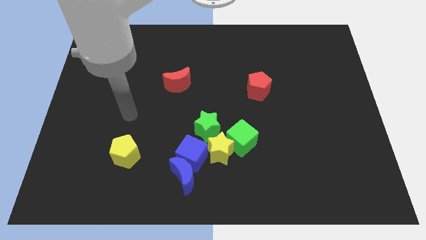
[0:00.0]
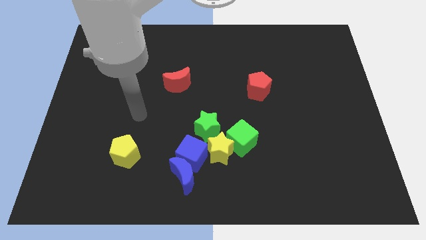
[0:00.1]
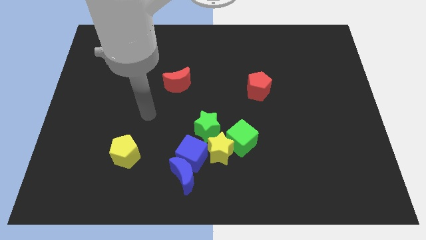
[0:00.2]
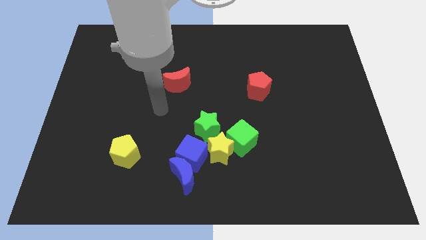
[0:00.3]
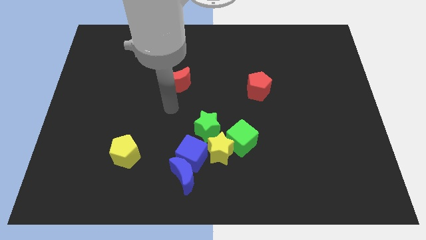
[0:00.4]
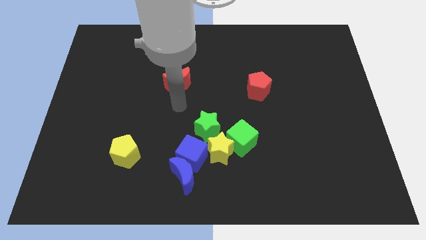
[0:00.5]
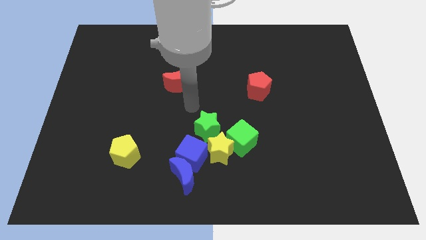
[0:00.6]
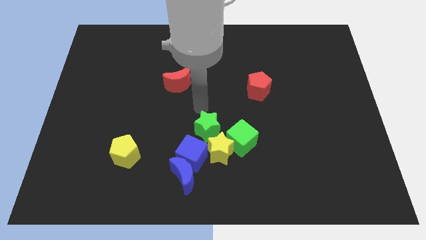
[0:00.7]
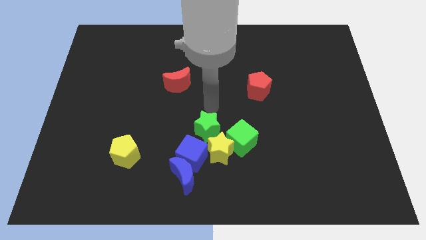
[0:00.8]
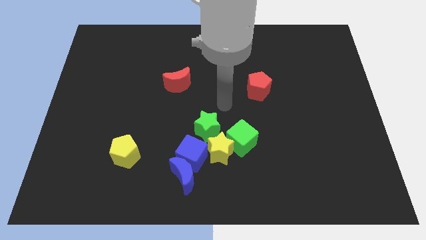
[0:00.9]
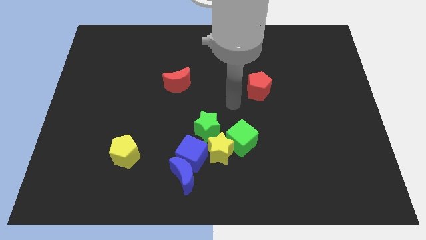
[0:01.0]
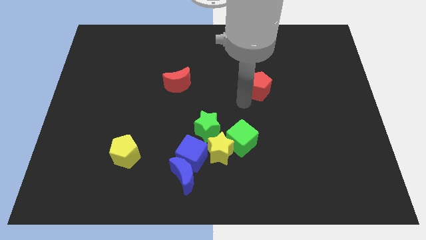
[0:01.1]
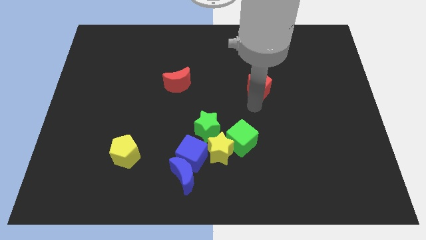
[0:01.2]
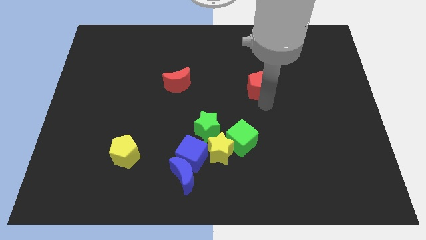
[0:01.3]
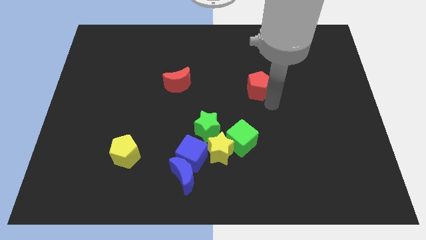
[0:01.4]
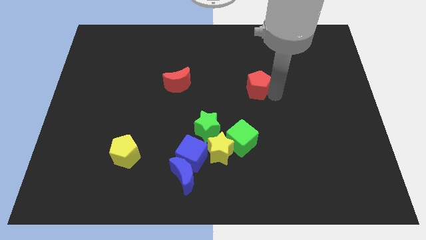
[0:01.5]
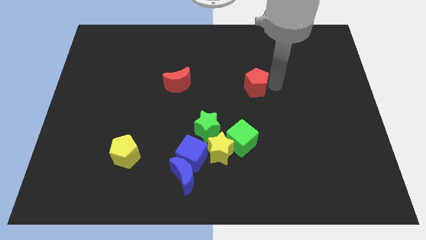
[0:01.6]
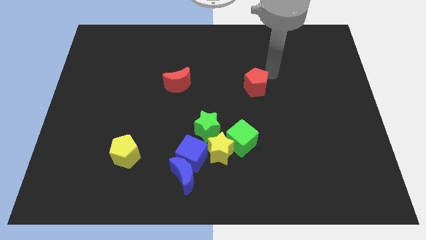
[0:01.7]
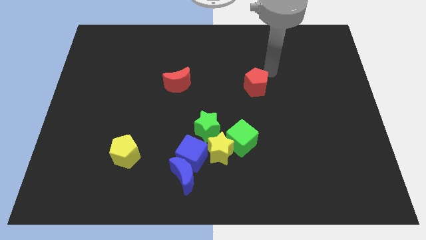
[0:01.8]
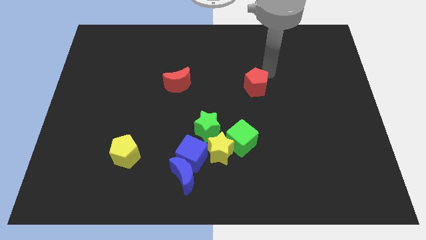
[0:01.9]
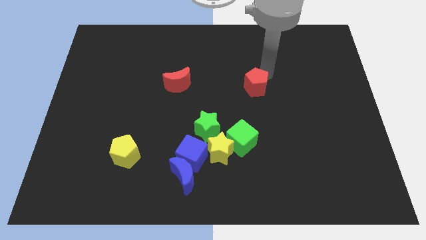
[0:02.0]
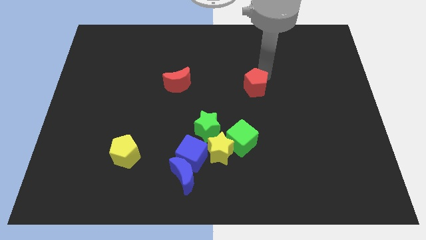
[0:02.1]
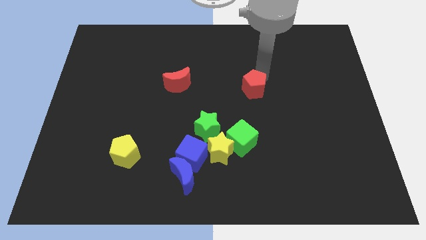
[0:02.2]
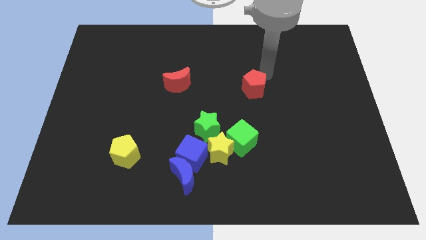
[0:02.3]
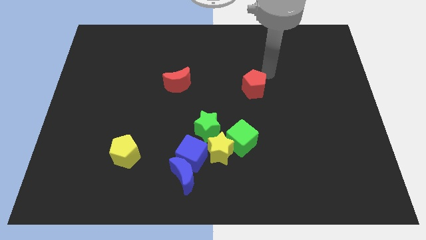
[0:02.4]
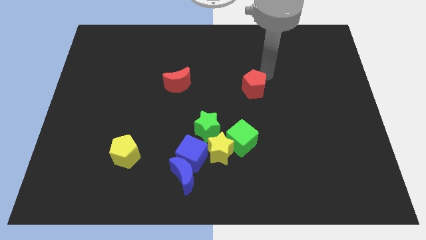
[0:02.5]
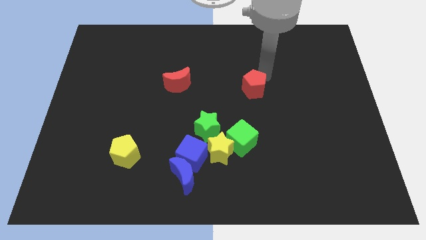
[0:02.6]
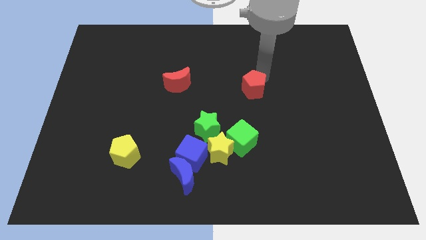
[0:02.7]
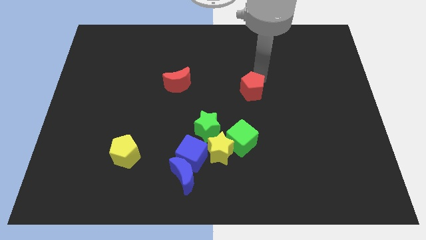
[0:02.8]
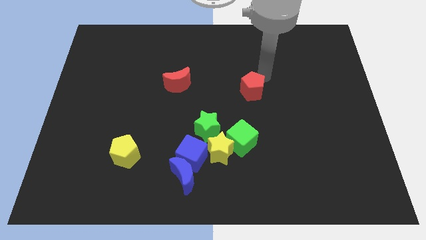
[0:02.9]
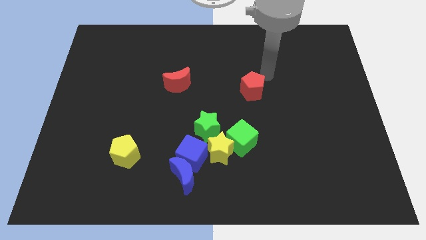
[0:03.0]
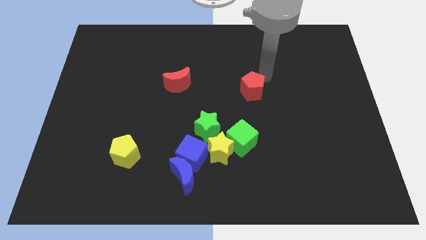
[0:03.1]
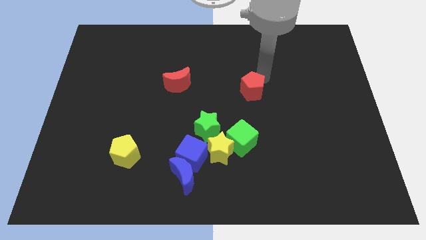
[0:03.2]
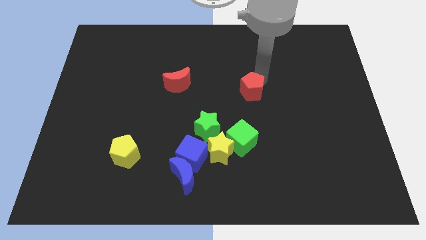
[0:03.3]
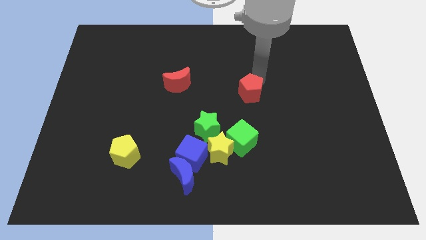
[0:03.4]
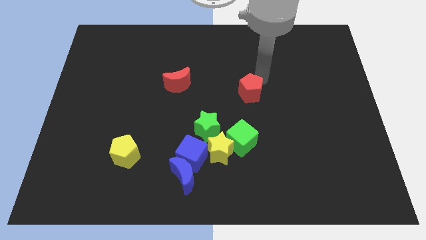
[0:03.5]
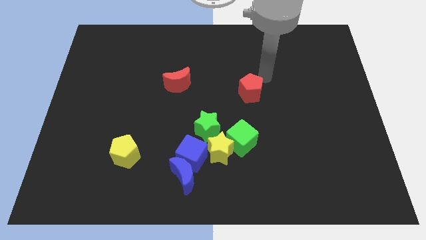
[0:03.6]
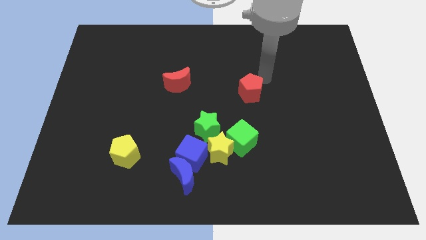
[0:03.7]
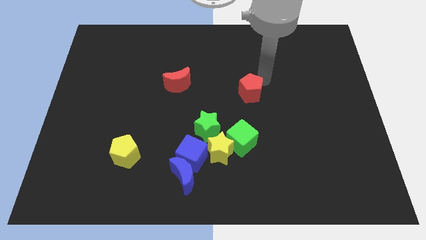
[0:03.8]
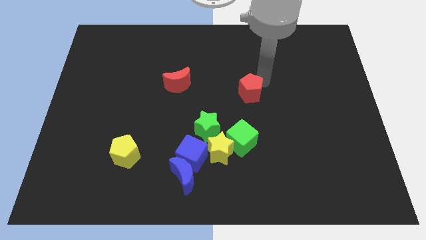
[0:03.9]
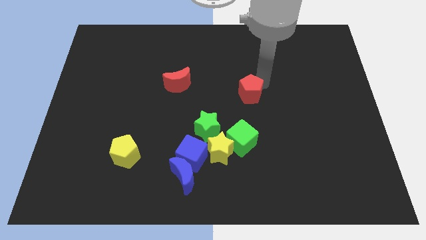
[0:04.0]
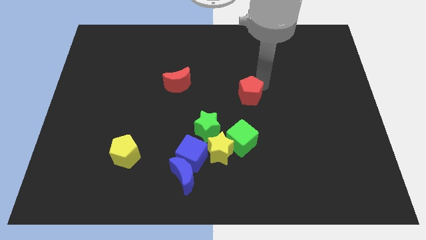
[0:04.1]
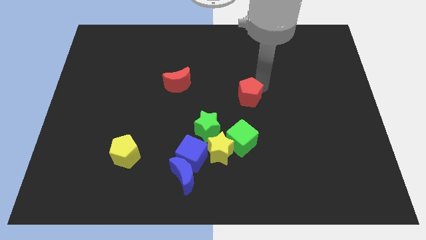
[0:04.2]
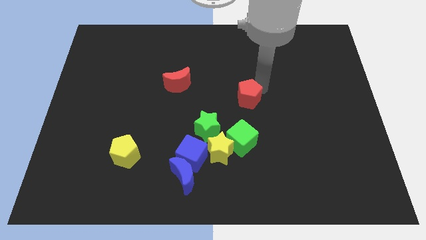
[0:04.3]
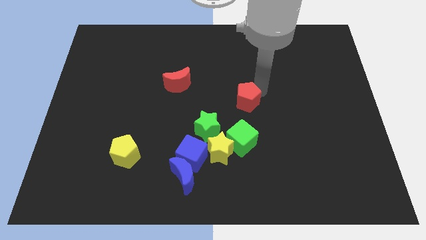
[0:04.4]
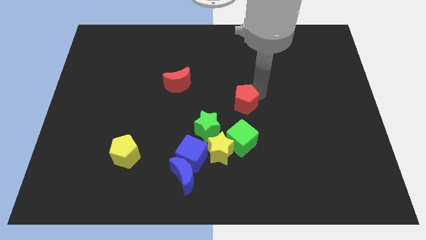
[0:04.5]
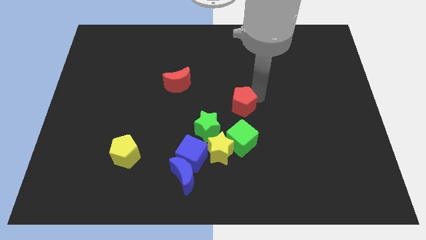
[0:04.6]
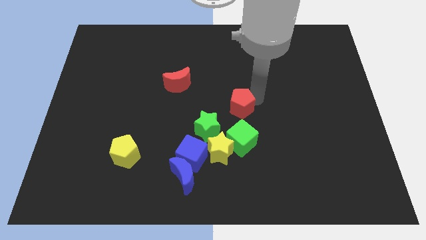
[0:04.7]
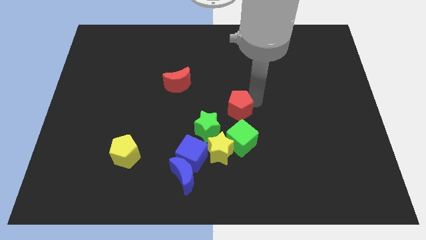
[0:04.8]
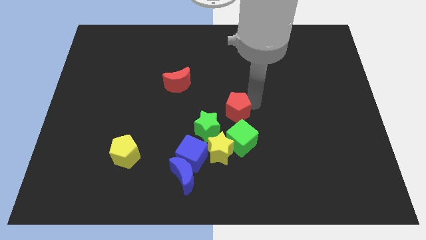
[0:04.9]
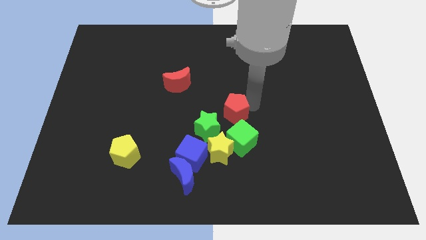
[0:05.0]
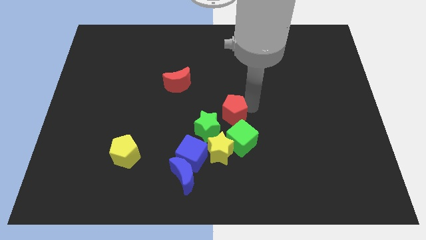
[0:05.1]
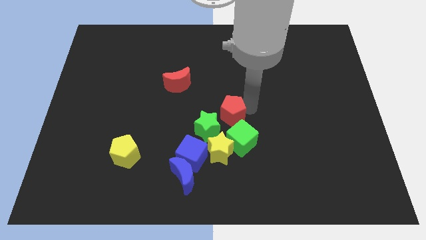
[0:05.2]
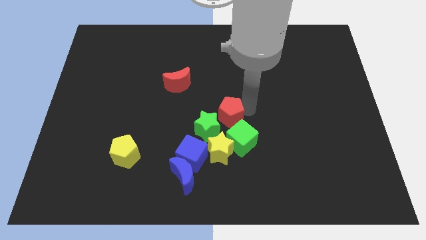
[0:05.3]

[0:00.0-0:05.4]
move the red pentagon close to the green star

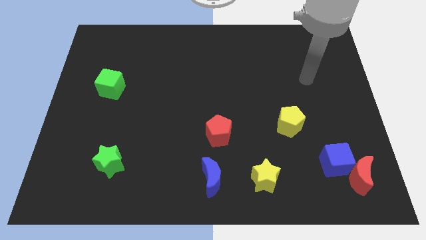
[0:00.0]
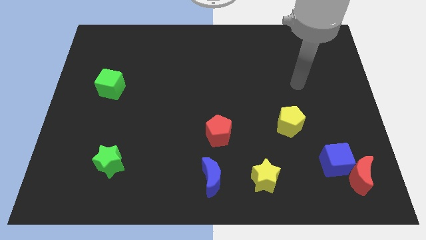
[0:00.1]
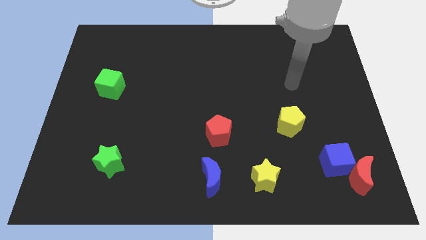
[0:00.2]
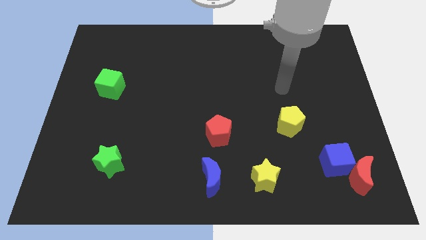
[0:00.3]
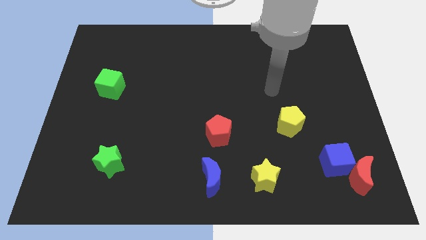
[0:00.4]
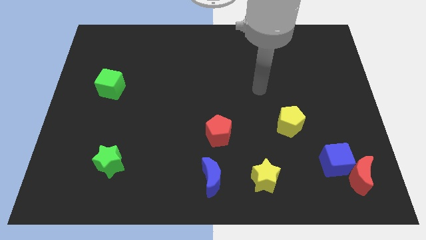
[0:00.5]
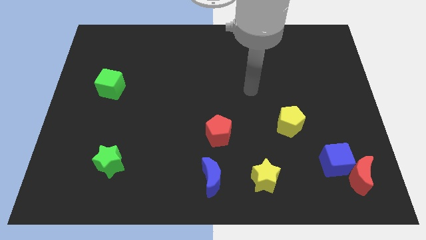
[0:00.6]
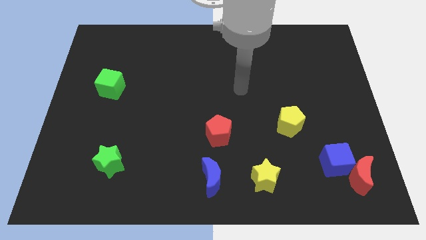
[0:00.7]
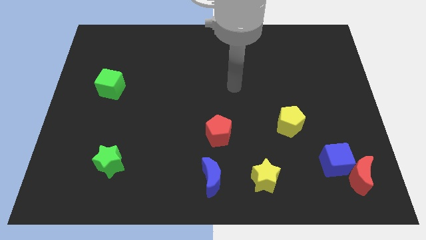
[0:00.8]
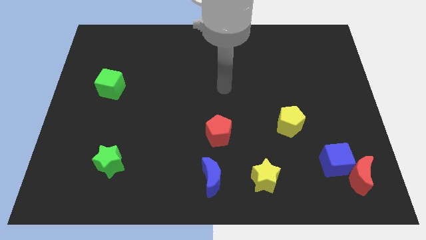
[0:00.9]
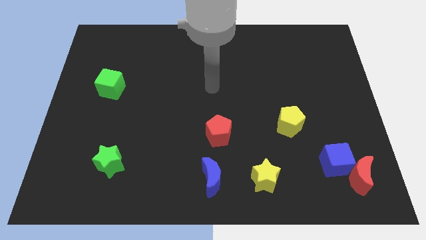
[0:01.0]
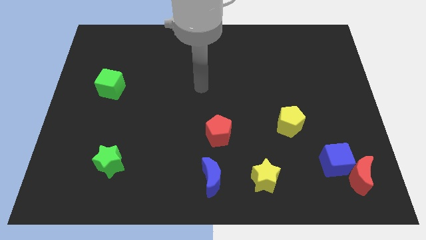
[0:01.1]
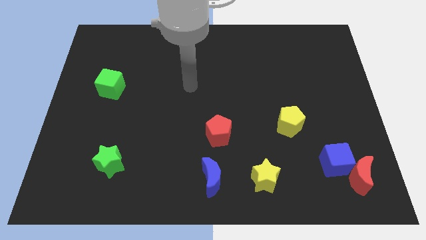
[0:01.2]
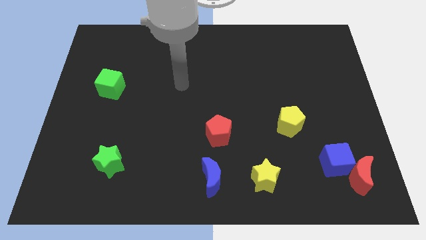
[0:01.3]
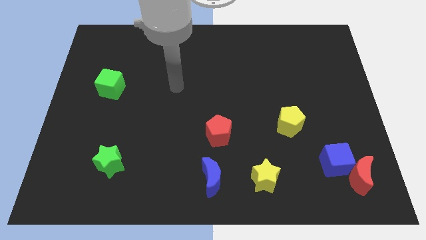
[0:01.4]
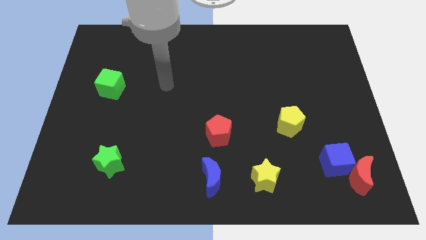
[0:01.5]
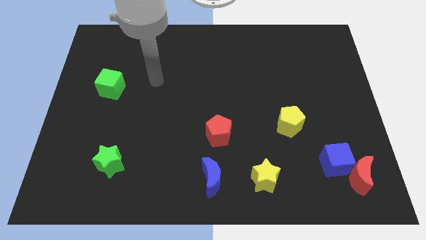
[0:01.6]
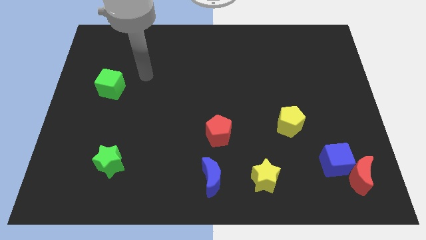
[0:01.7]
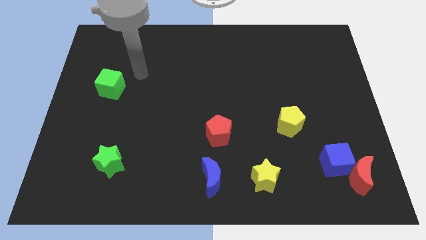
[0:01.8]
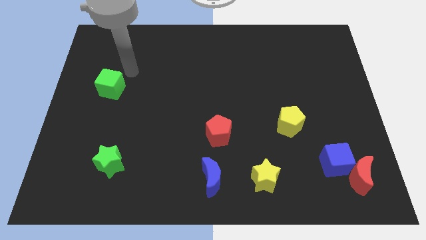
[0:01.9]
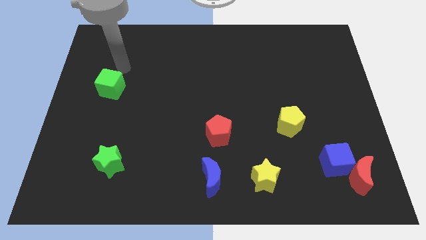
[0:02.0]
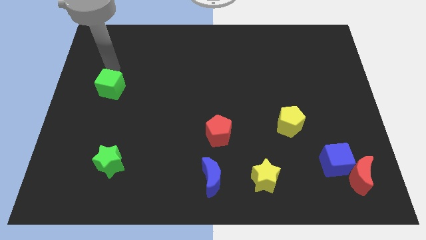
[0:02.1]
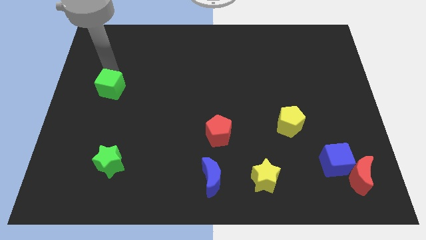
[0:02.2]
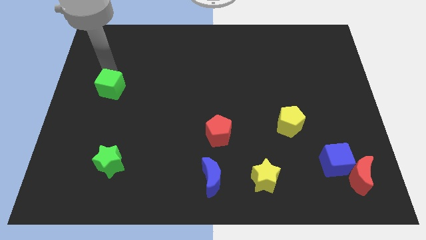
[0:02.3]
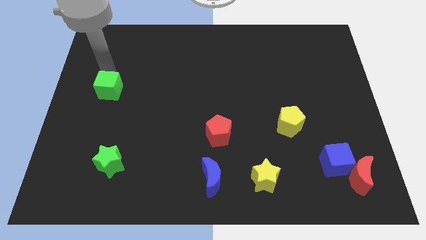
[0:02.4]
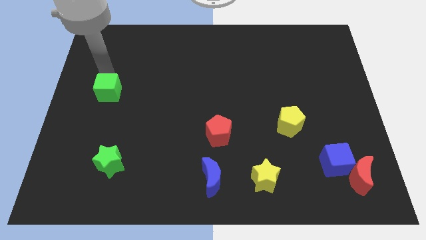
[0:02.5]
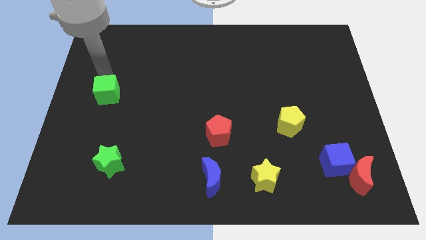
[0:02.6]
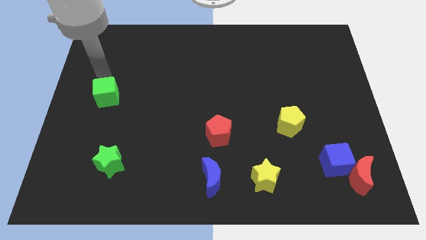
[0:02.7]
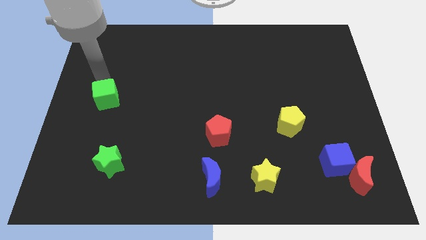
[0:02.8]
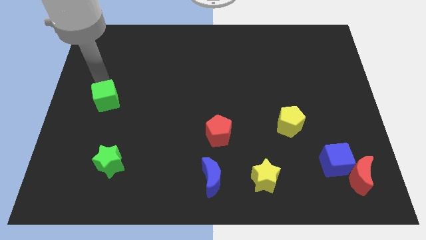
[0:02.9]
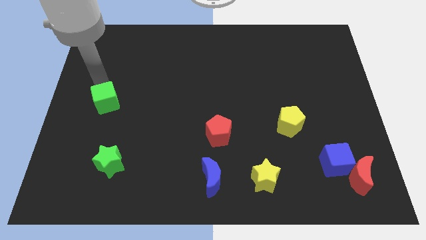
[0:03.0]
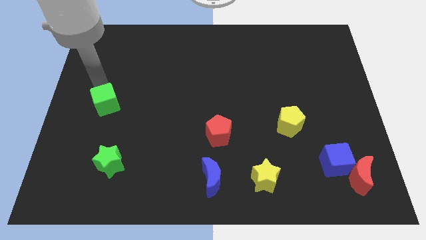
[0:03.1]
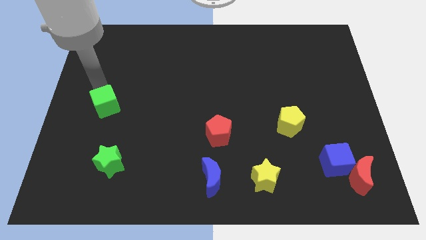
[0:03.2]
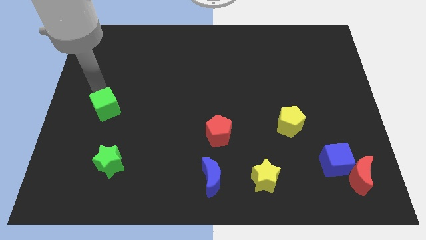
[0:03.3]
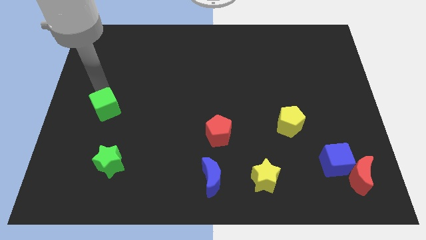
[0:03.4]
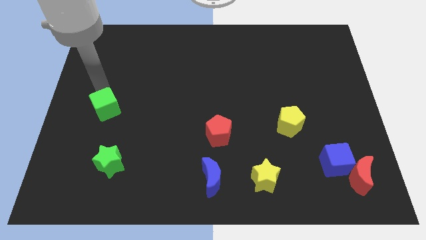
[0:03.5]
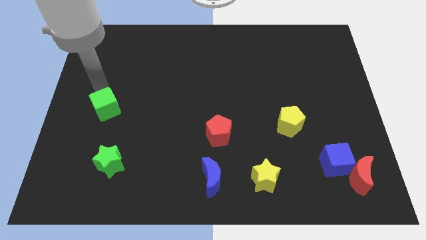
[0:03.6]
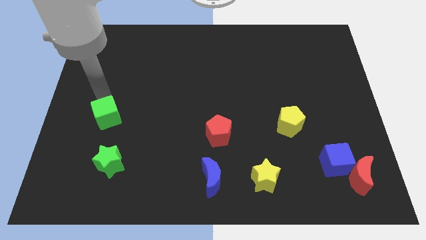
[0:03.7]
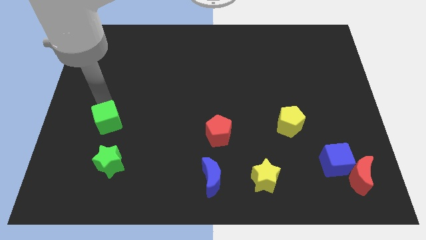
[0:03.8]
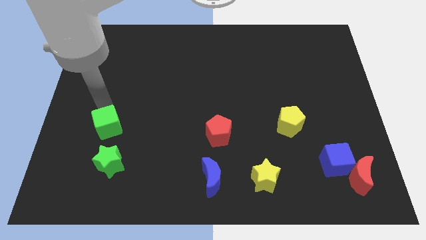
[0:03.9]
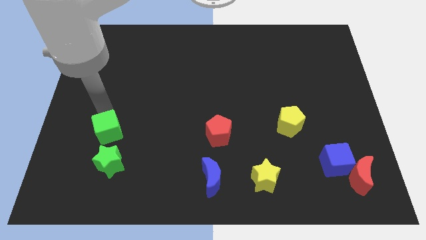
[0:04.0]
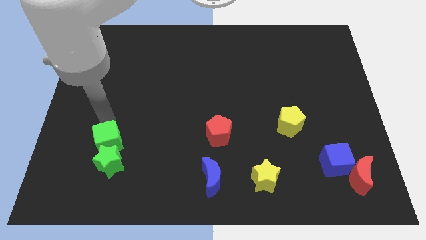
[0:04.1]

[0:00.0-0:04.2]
slide the green cube to the green star
